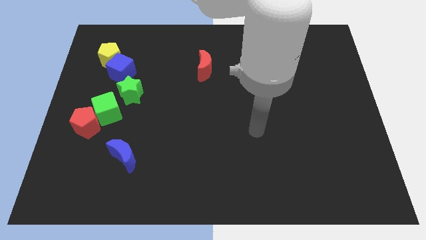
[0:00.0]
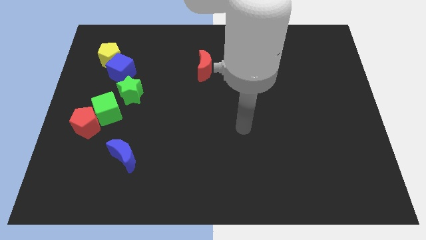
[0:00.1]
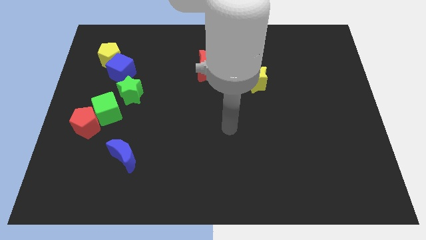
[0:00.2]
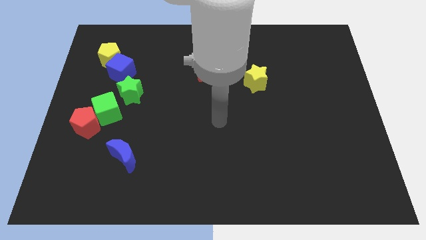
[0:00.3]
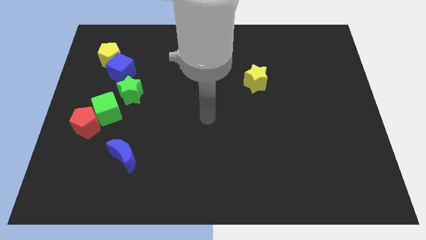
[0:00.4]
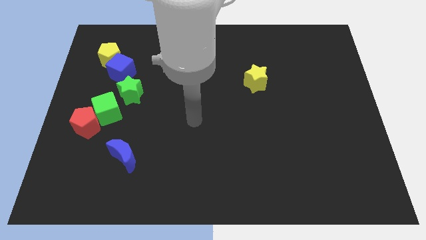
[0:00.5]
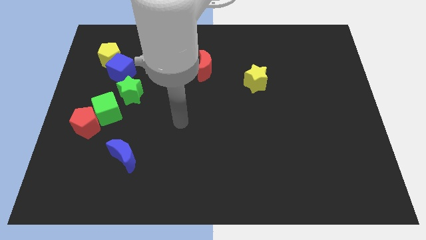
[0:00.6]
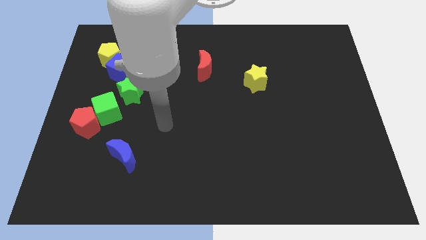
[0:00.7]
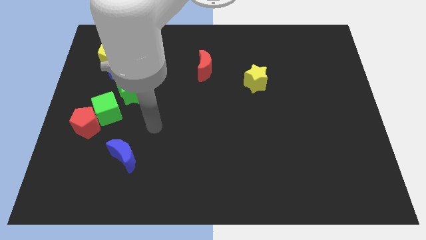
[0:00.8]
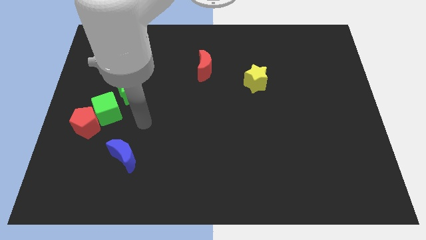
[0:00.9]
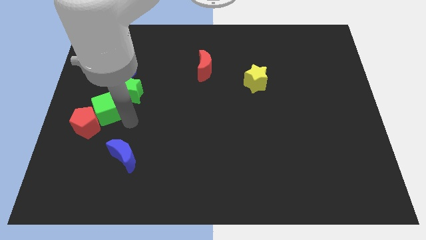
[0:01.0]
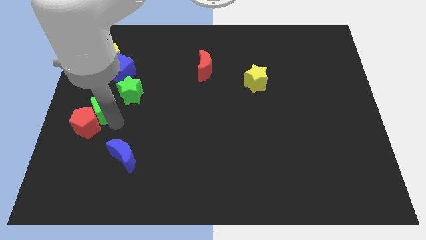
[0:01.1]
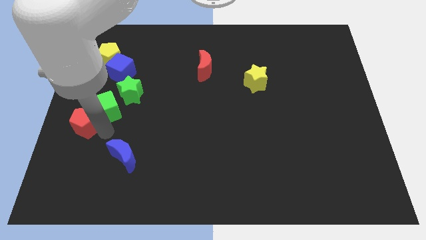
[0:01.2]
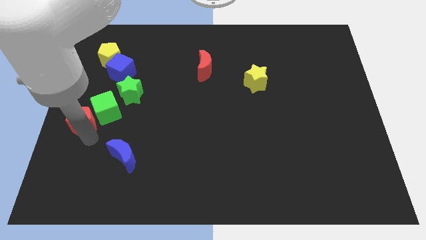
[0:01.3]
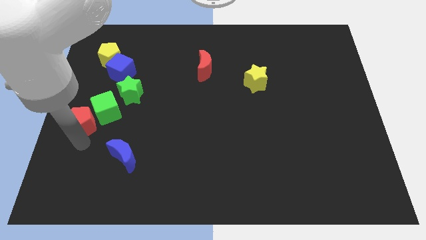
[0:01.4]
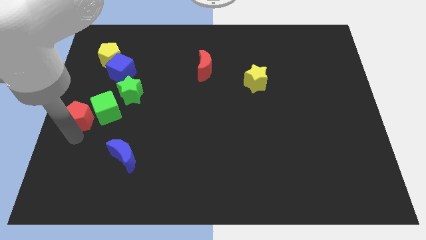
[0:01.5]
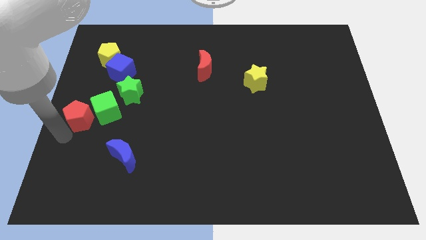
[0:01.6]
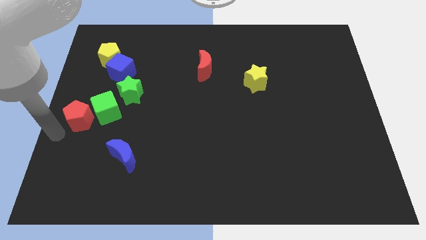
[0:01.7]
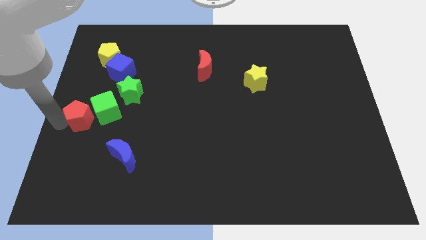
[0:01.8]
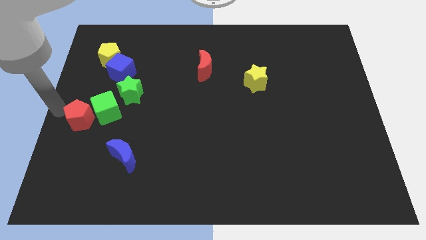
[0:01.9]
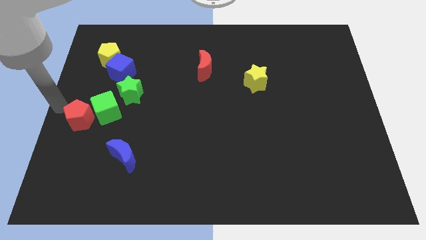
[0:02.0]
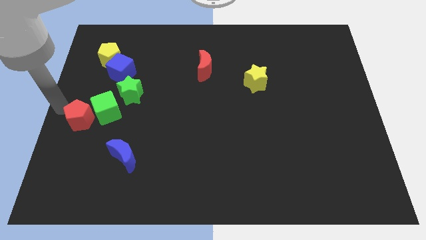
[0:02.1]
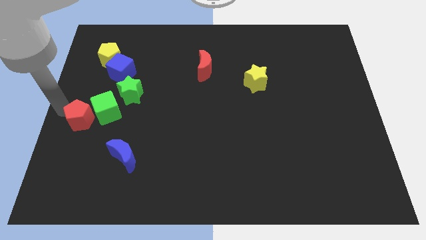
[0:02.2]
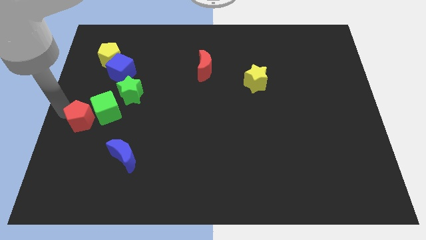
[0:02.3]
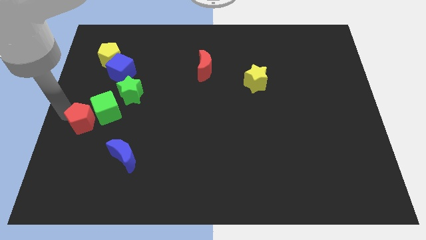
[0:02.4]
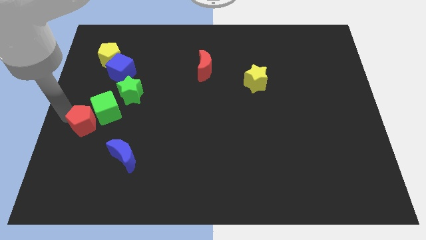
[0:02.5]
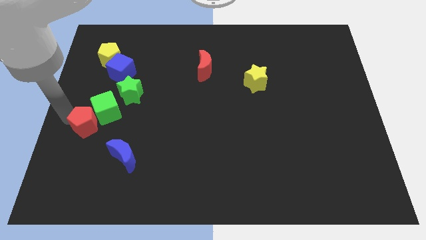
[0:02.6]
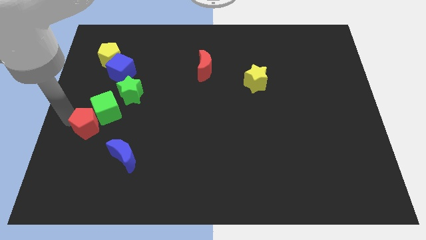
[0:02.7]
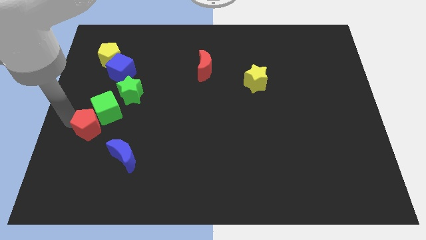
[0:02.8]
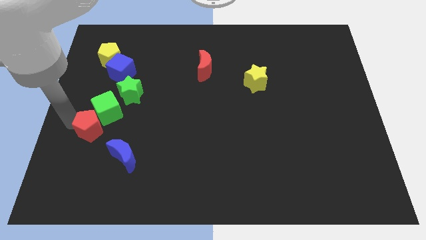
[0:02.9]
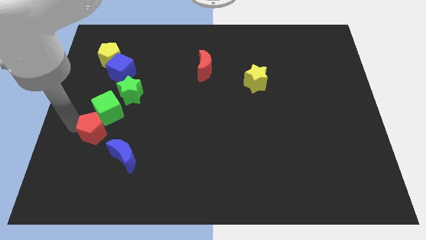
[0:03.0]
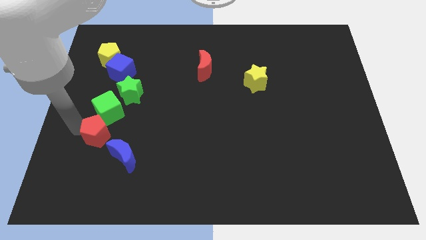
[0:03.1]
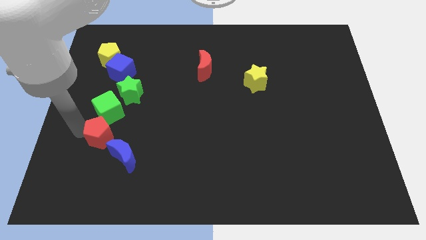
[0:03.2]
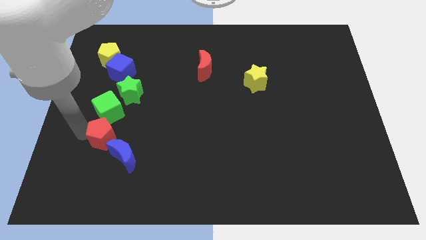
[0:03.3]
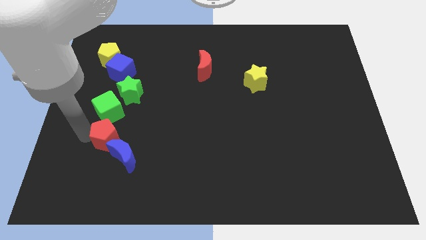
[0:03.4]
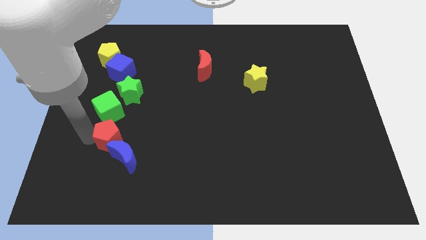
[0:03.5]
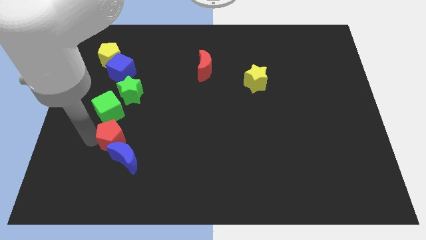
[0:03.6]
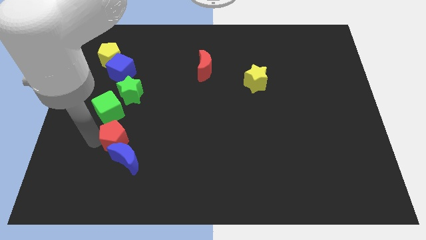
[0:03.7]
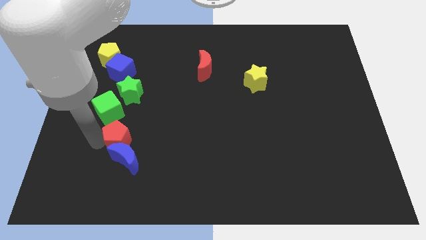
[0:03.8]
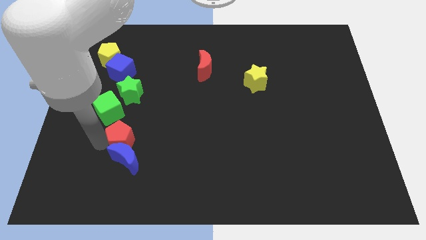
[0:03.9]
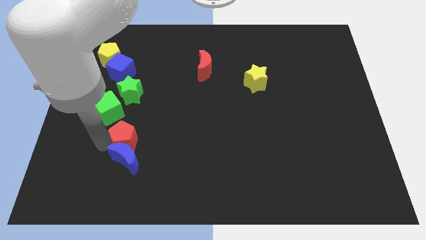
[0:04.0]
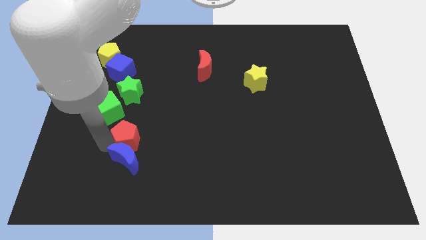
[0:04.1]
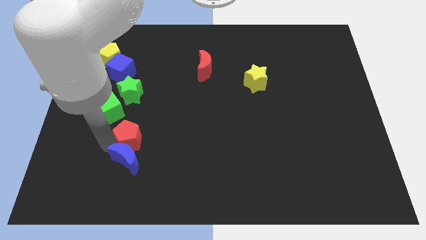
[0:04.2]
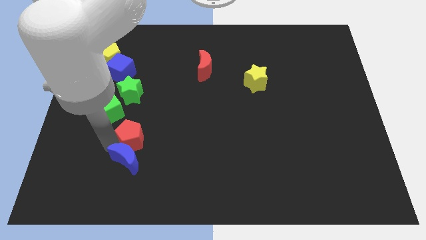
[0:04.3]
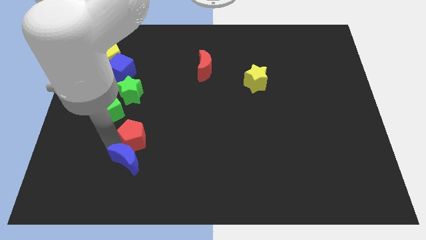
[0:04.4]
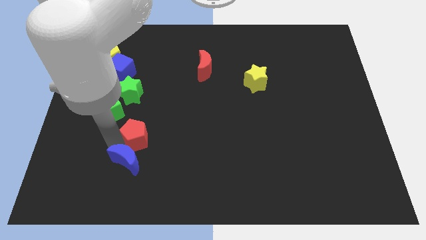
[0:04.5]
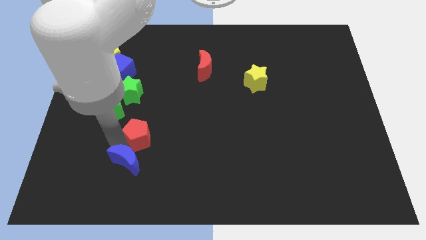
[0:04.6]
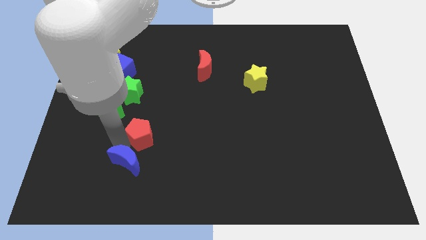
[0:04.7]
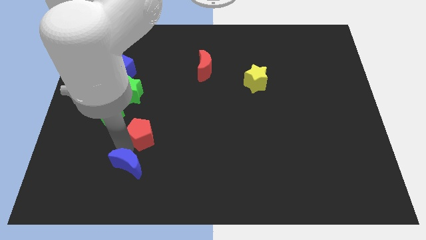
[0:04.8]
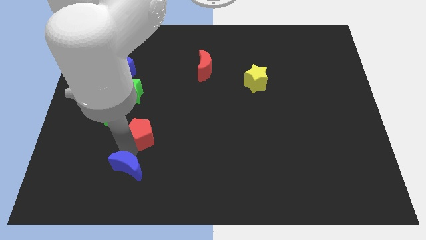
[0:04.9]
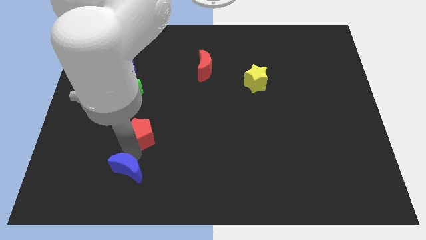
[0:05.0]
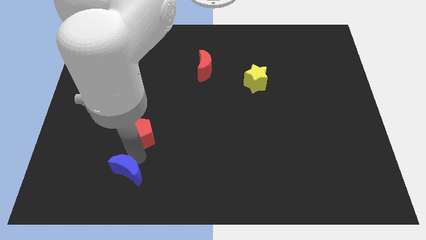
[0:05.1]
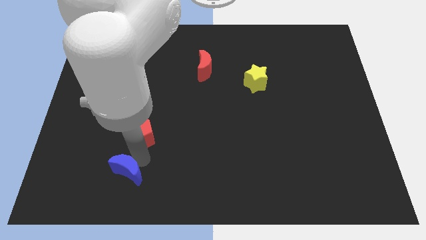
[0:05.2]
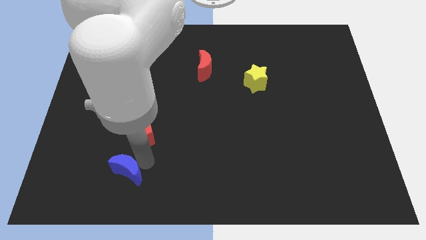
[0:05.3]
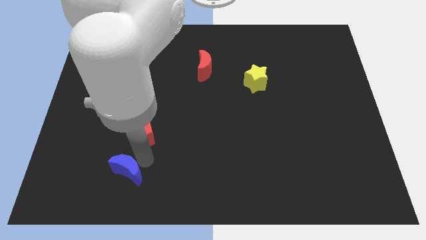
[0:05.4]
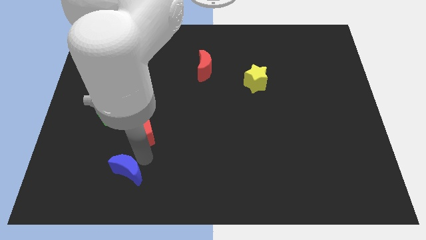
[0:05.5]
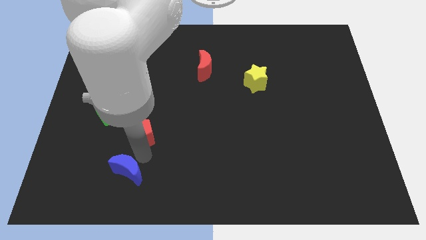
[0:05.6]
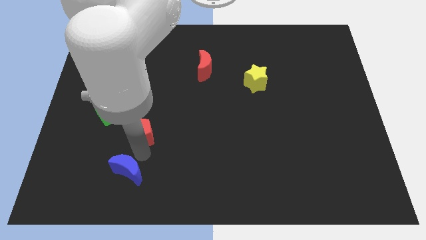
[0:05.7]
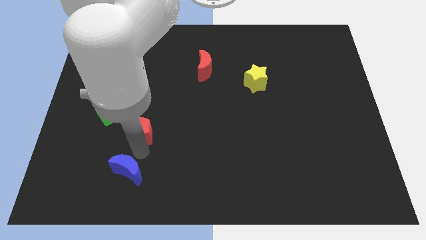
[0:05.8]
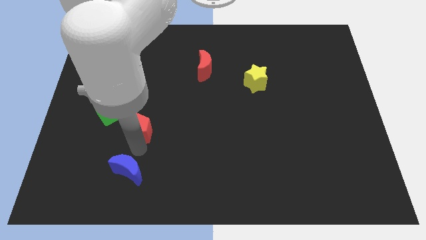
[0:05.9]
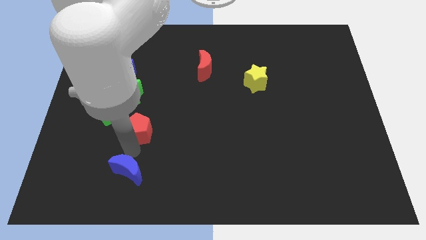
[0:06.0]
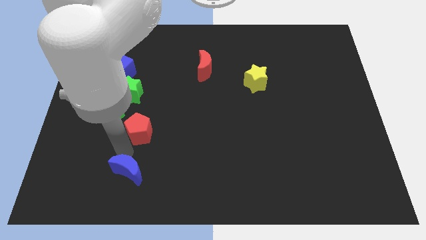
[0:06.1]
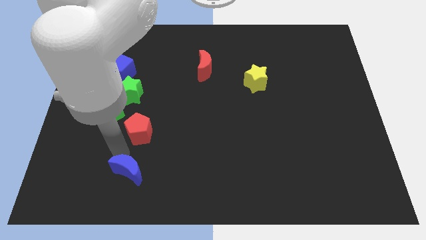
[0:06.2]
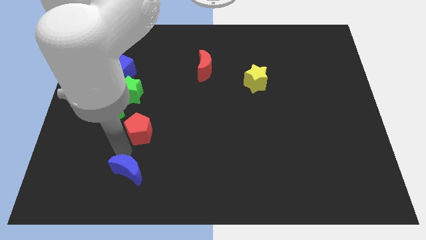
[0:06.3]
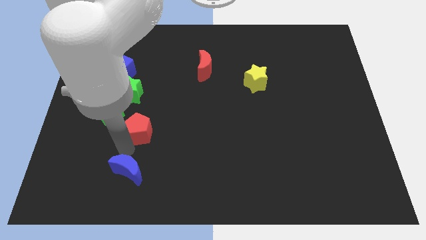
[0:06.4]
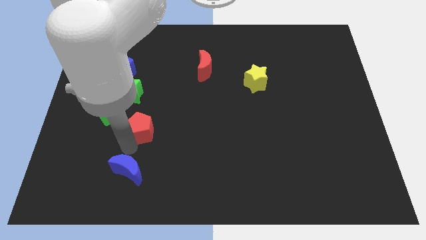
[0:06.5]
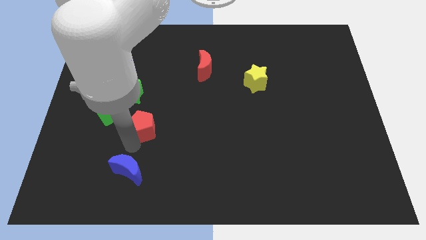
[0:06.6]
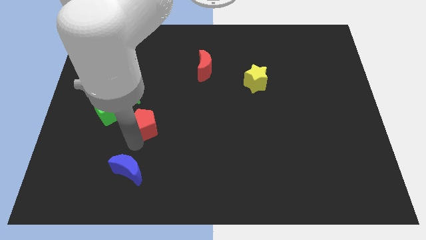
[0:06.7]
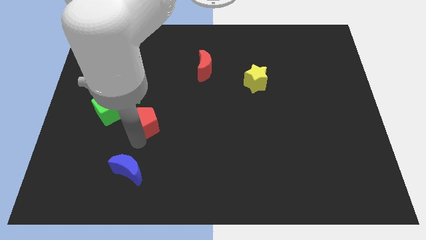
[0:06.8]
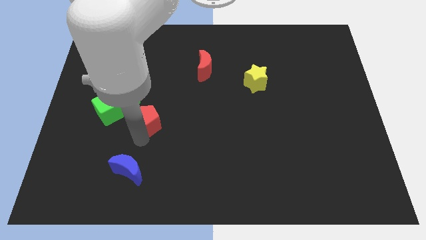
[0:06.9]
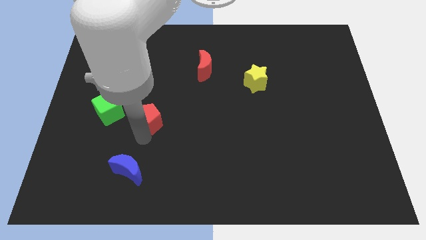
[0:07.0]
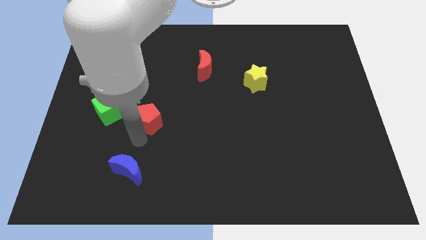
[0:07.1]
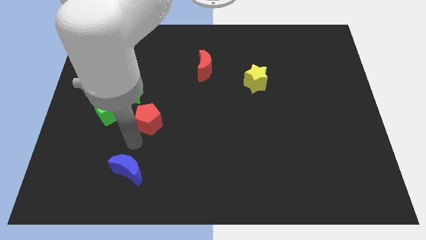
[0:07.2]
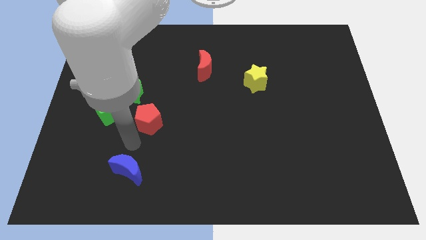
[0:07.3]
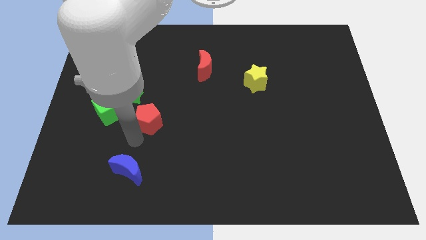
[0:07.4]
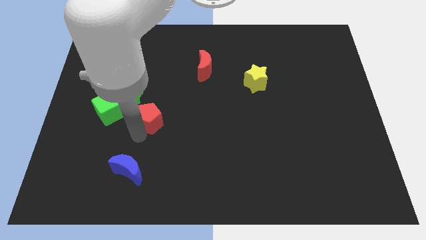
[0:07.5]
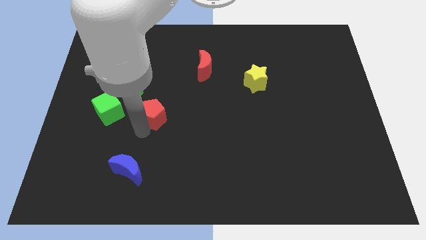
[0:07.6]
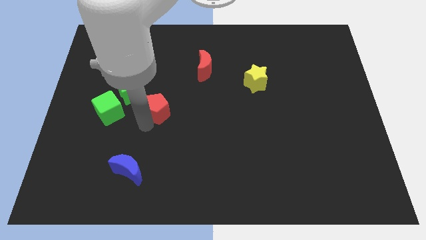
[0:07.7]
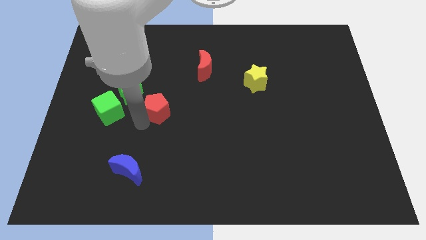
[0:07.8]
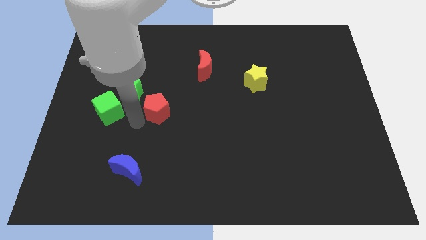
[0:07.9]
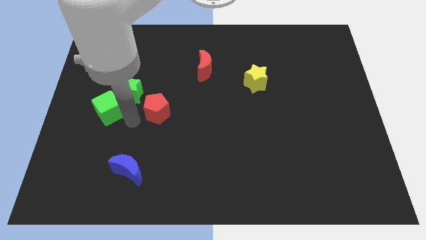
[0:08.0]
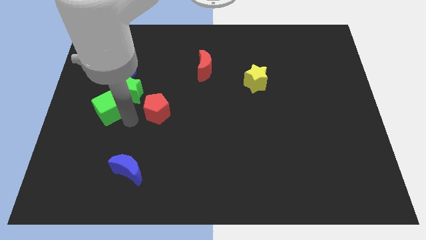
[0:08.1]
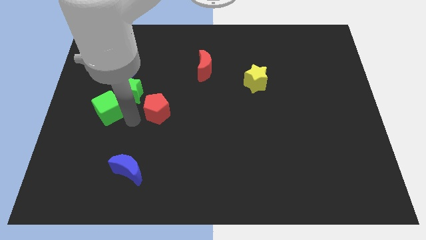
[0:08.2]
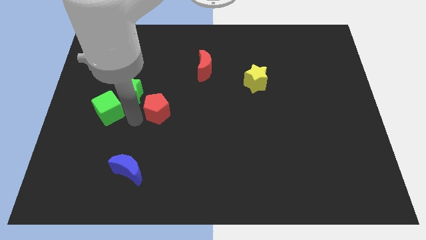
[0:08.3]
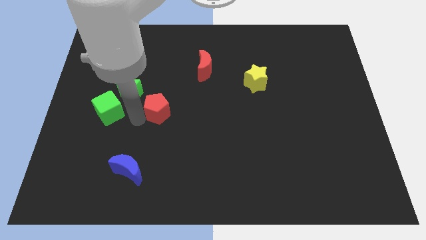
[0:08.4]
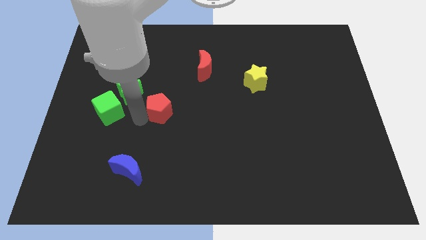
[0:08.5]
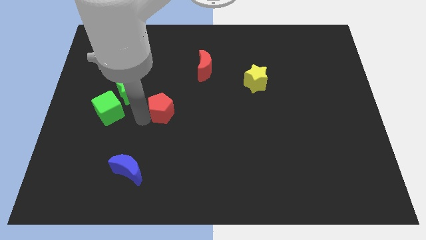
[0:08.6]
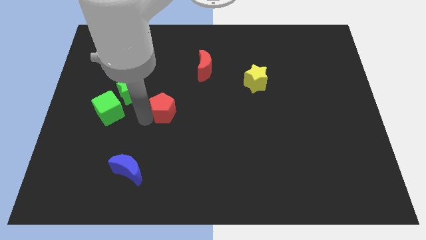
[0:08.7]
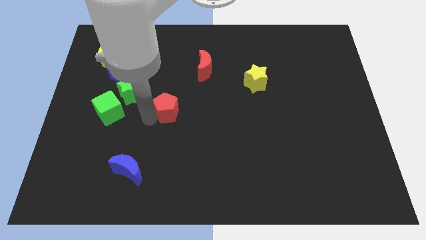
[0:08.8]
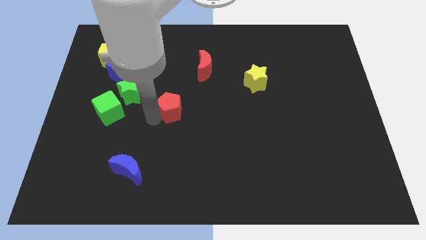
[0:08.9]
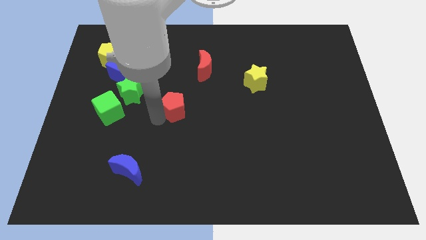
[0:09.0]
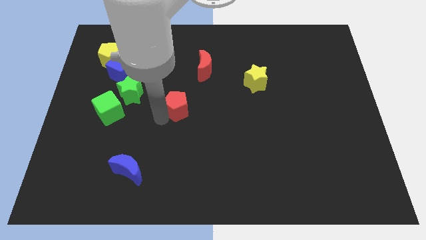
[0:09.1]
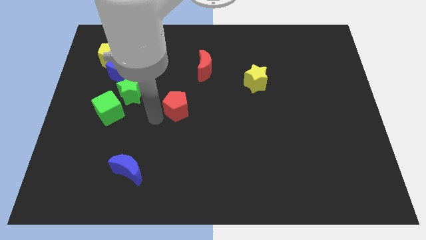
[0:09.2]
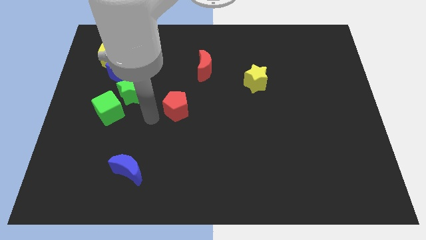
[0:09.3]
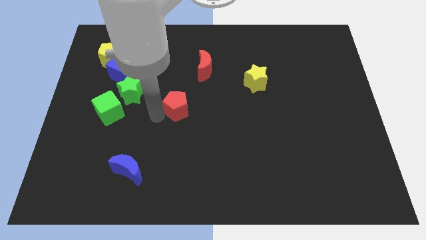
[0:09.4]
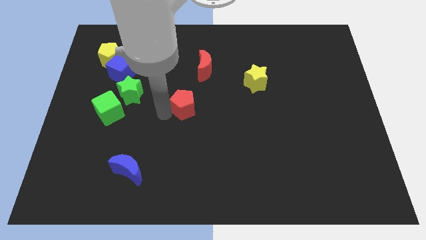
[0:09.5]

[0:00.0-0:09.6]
push the red pentagon to the bottom of the red moon
